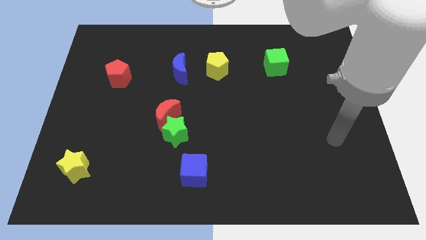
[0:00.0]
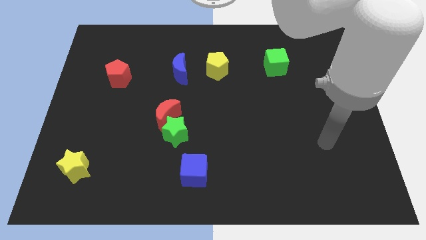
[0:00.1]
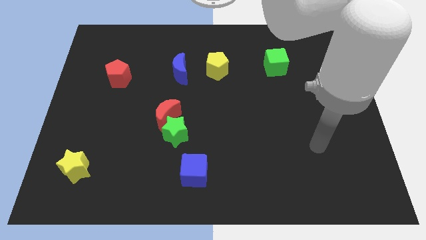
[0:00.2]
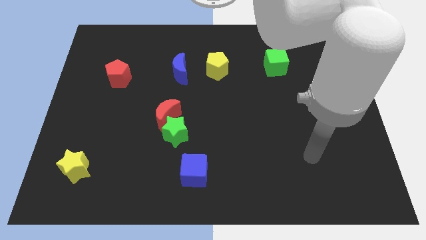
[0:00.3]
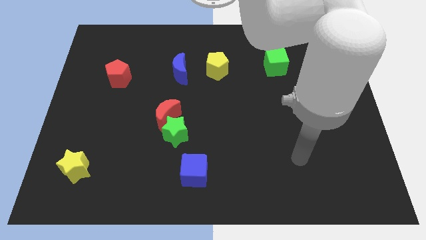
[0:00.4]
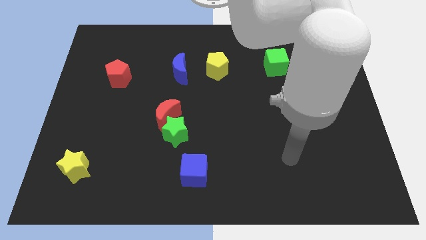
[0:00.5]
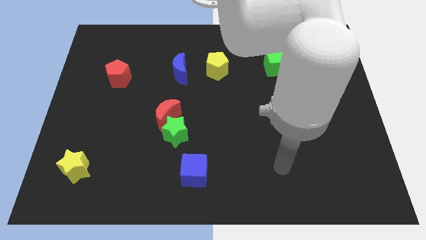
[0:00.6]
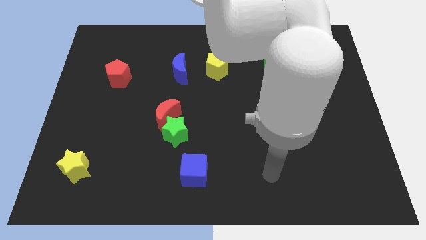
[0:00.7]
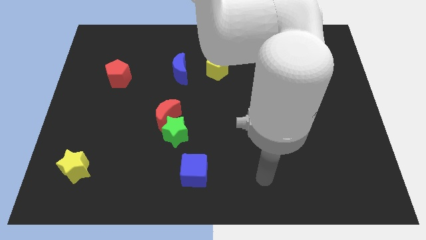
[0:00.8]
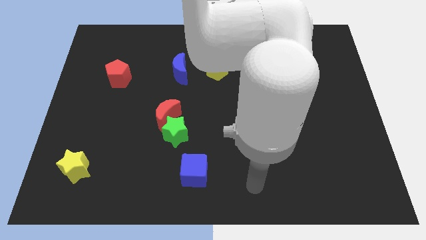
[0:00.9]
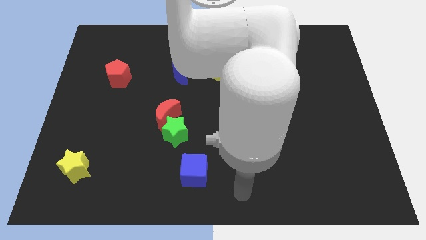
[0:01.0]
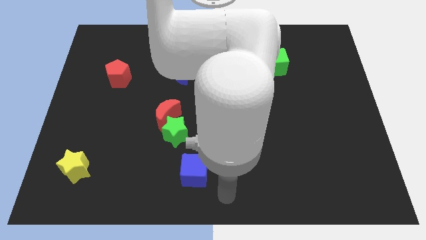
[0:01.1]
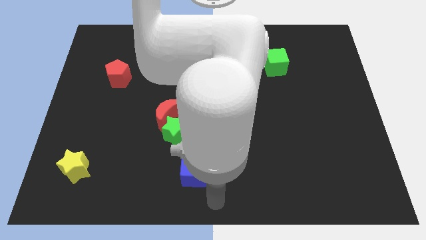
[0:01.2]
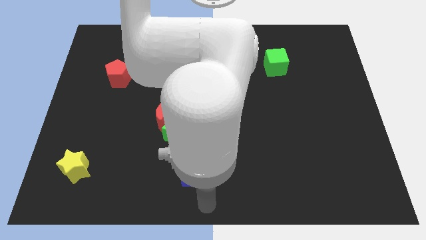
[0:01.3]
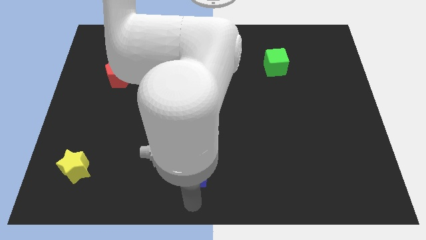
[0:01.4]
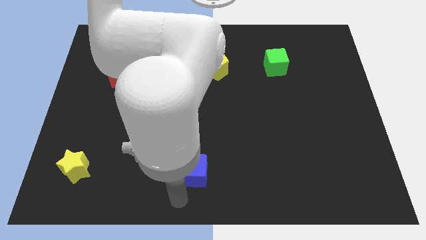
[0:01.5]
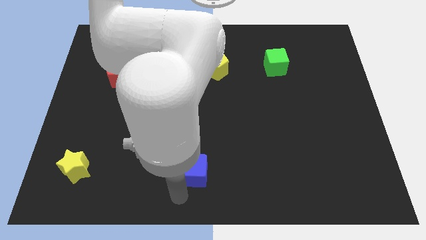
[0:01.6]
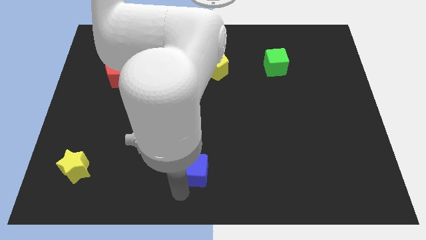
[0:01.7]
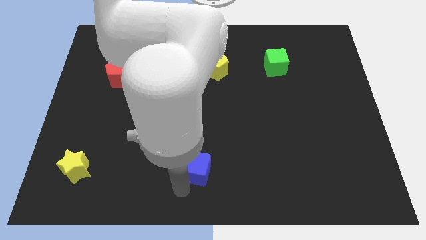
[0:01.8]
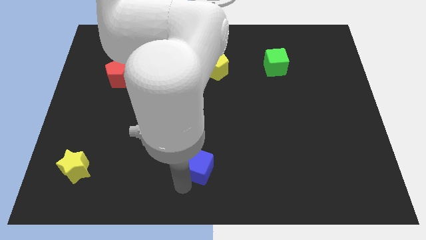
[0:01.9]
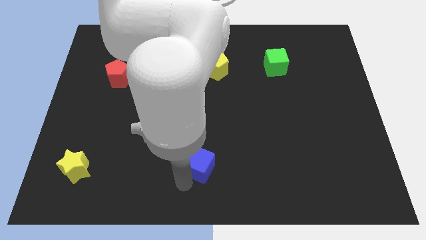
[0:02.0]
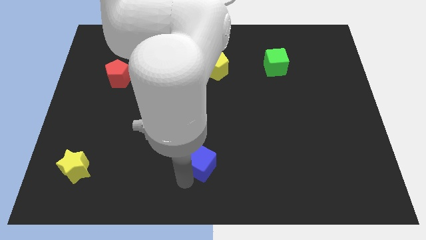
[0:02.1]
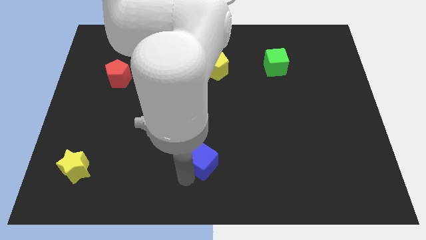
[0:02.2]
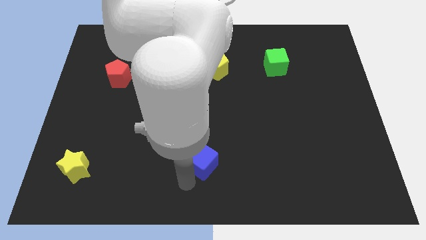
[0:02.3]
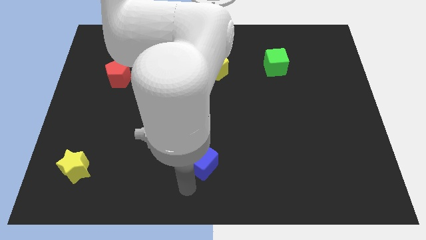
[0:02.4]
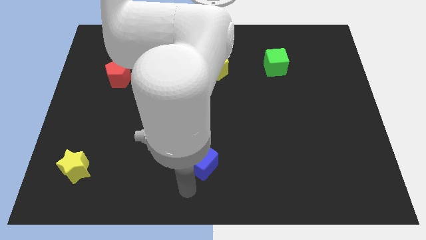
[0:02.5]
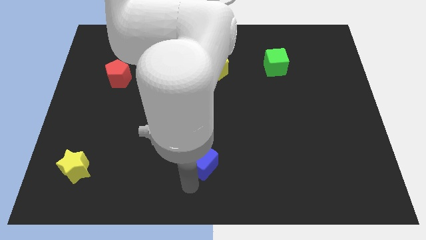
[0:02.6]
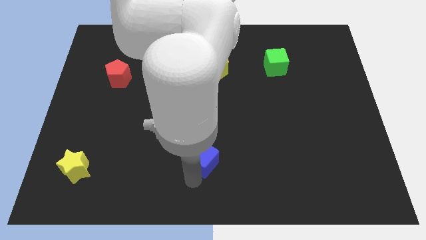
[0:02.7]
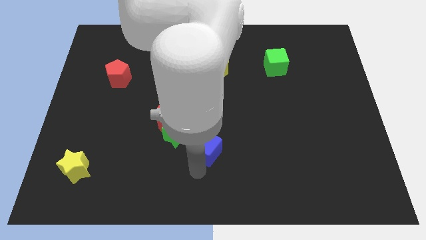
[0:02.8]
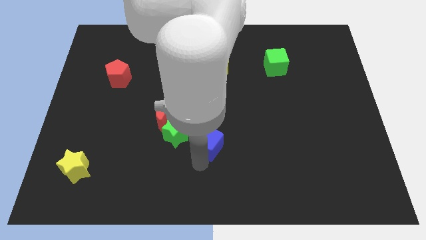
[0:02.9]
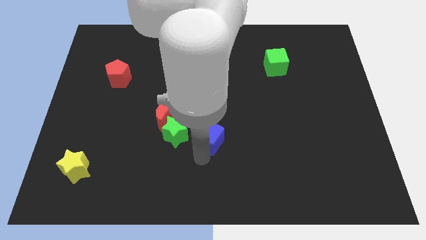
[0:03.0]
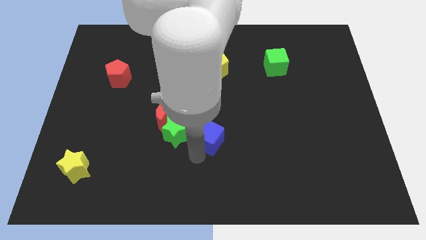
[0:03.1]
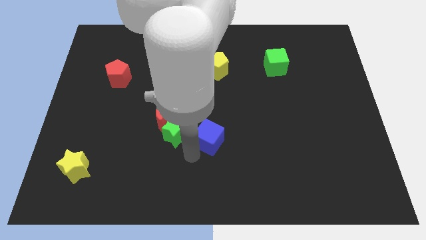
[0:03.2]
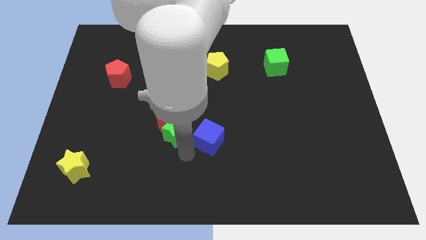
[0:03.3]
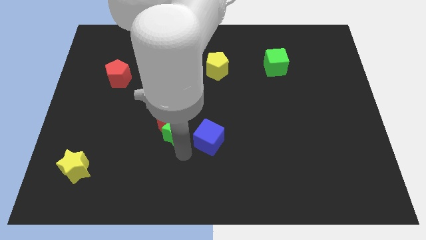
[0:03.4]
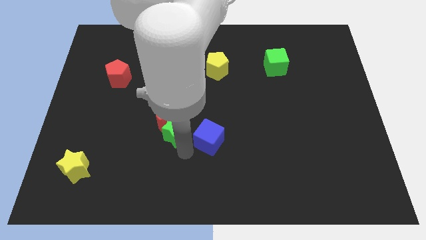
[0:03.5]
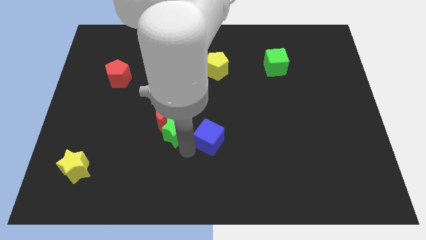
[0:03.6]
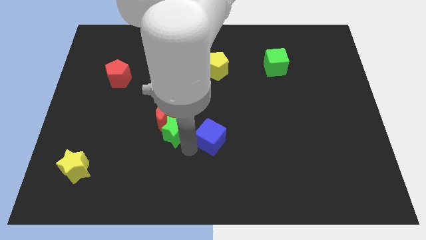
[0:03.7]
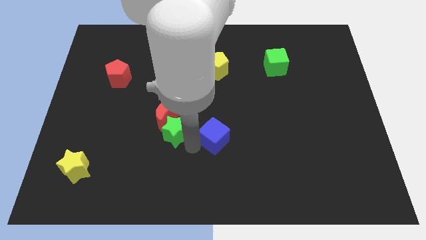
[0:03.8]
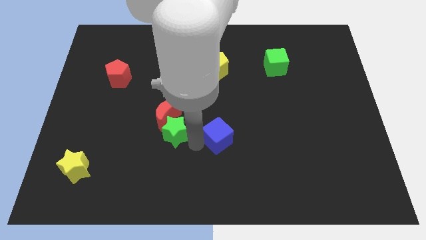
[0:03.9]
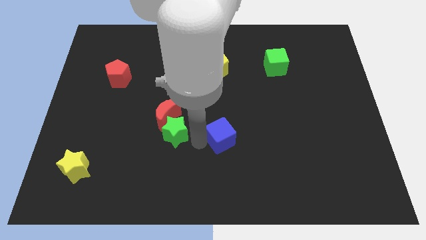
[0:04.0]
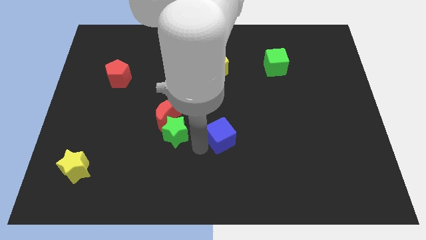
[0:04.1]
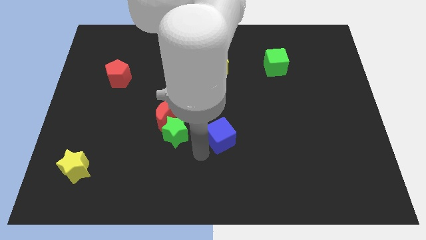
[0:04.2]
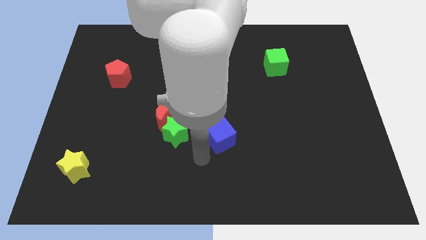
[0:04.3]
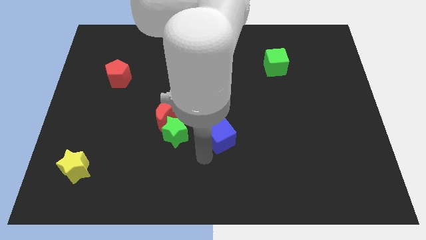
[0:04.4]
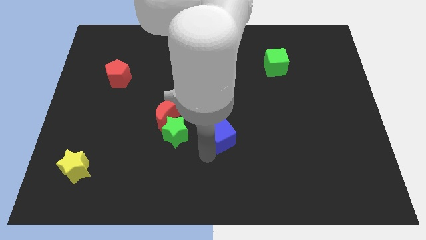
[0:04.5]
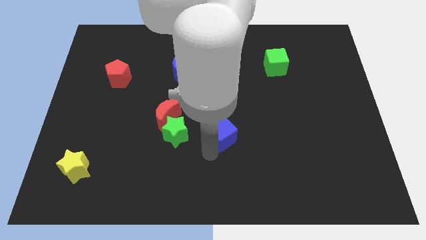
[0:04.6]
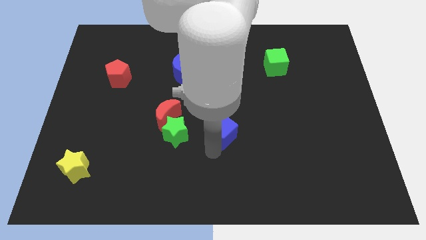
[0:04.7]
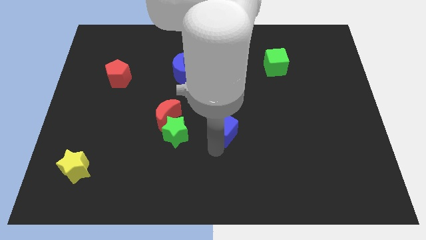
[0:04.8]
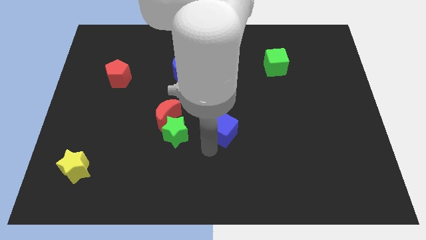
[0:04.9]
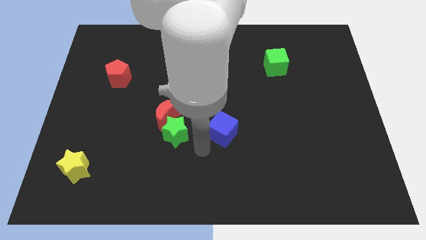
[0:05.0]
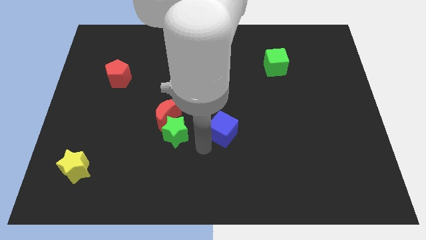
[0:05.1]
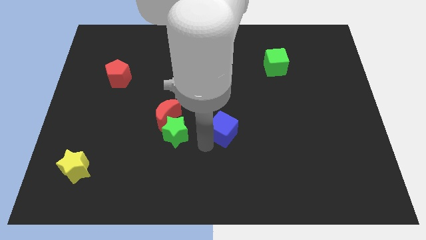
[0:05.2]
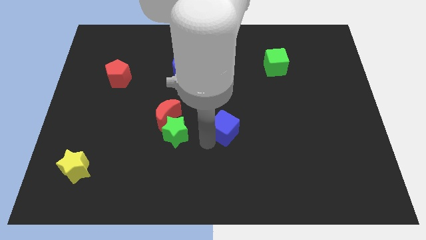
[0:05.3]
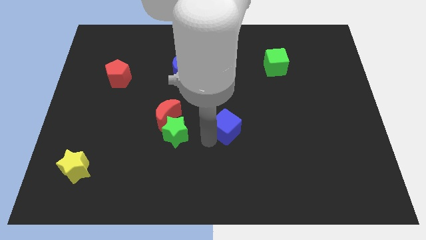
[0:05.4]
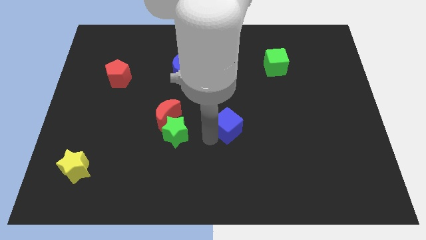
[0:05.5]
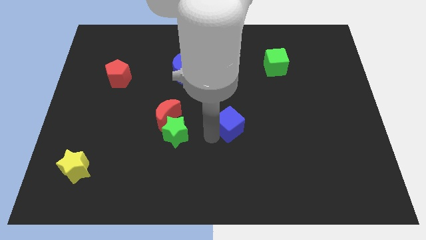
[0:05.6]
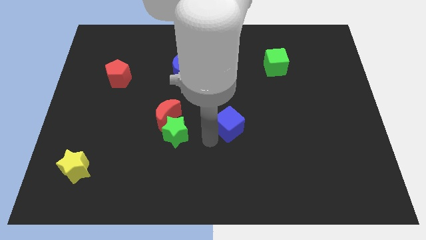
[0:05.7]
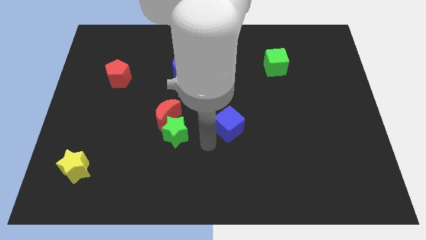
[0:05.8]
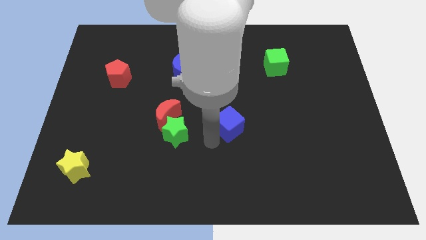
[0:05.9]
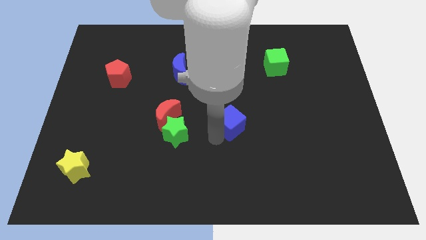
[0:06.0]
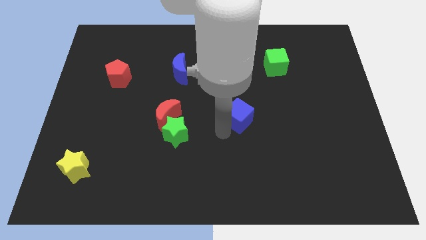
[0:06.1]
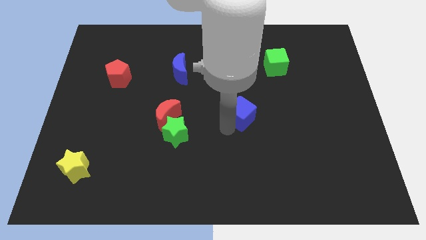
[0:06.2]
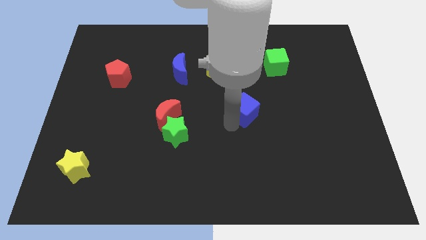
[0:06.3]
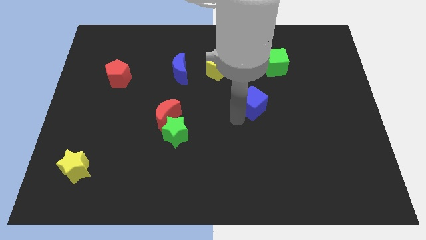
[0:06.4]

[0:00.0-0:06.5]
slide the blue cube diagonally upwards and to the right

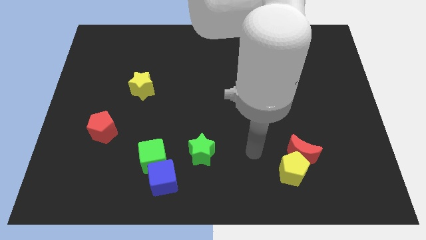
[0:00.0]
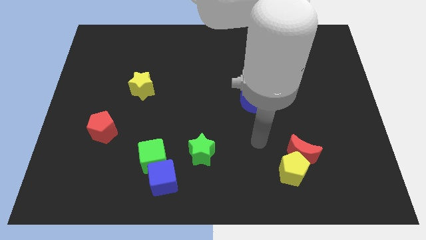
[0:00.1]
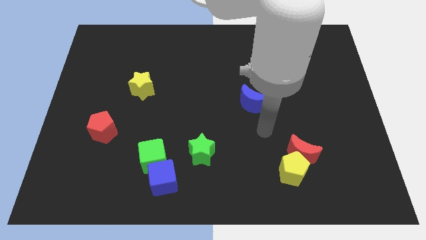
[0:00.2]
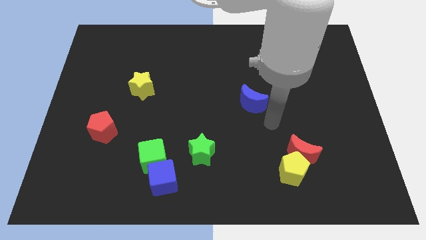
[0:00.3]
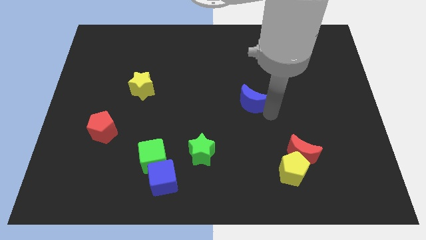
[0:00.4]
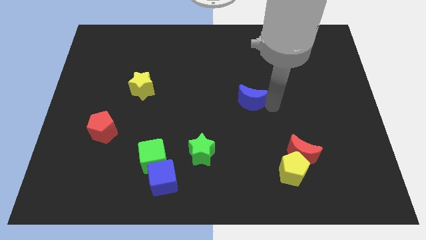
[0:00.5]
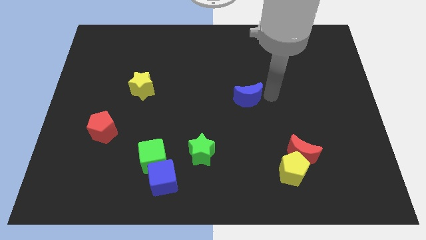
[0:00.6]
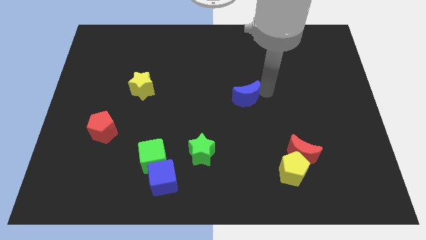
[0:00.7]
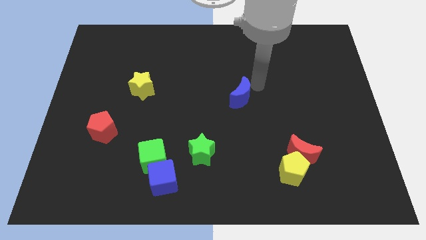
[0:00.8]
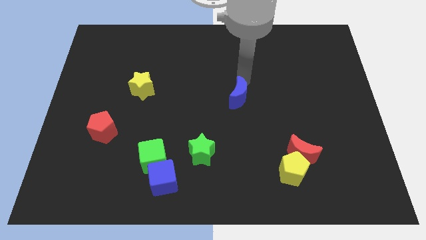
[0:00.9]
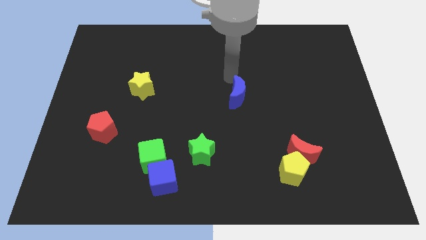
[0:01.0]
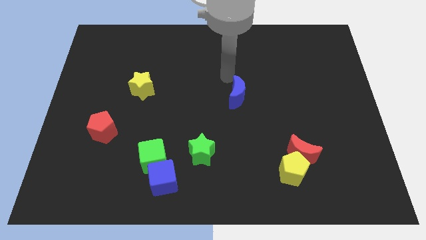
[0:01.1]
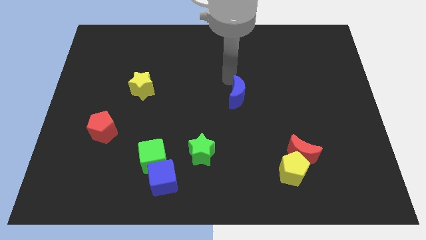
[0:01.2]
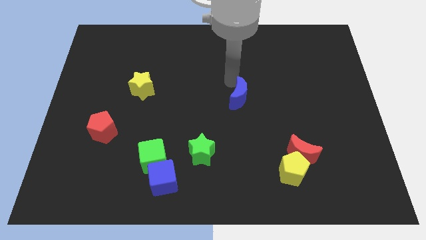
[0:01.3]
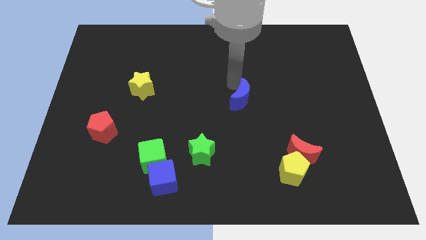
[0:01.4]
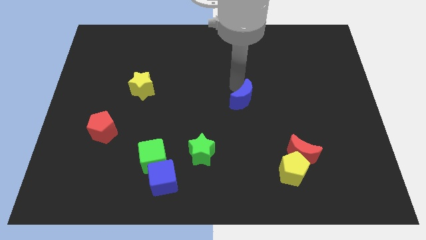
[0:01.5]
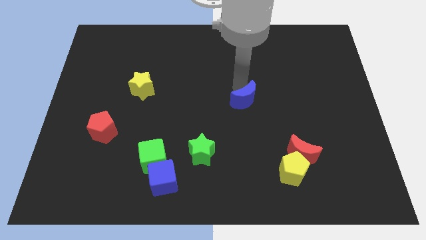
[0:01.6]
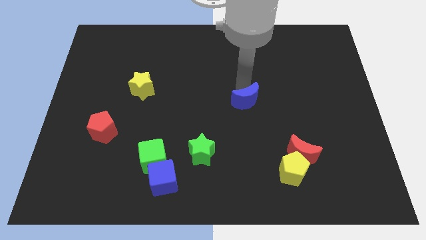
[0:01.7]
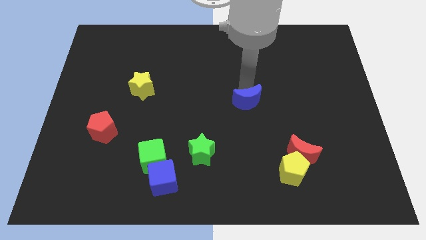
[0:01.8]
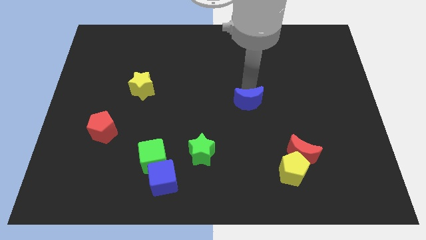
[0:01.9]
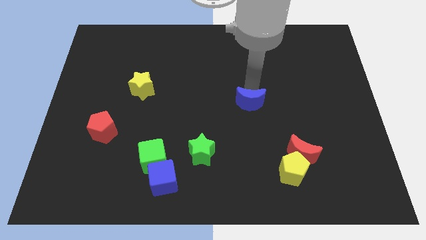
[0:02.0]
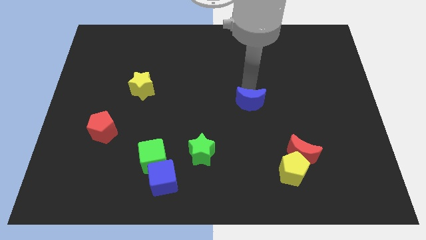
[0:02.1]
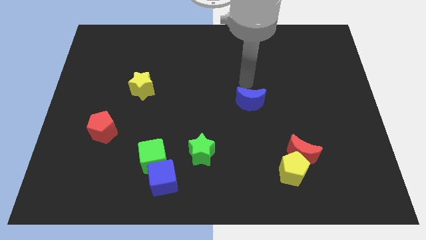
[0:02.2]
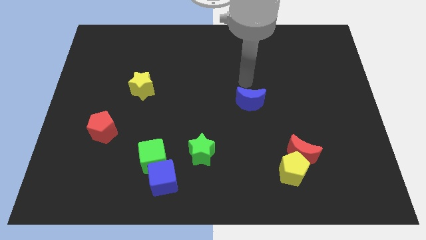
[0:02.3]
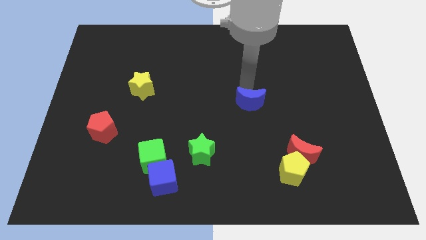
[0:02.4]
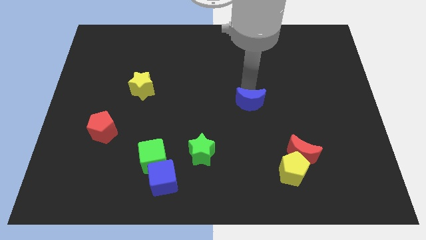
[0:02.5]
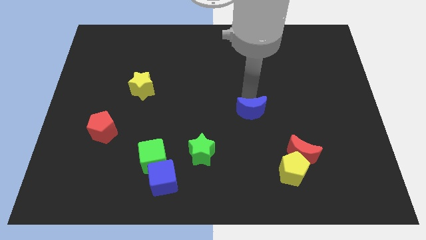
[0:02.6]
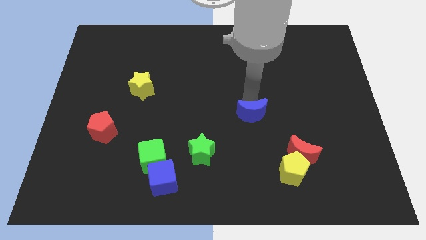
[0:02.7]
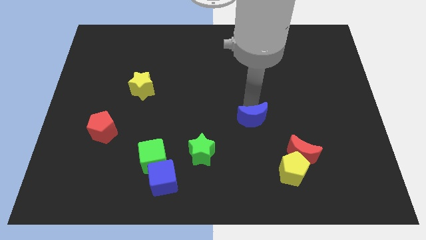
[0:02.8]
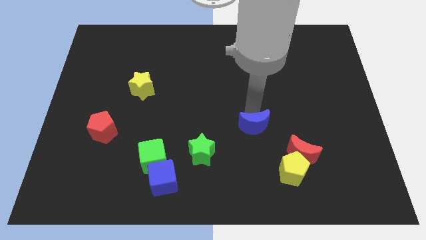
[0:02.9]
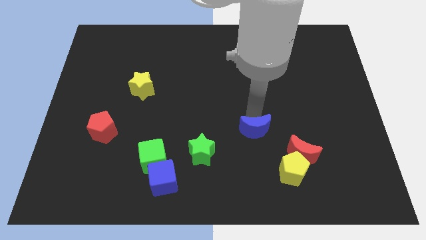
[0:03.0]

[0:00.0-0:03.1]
slightly slide the blue moon downwards
